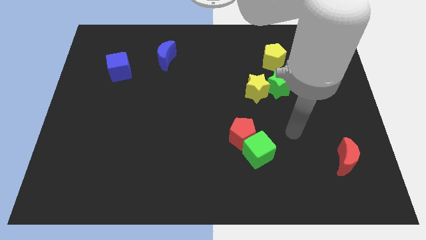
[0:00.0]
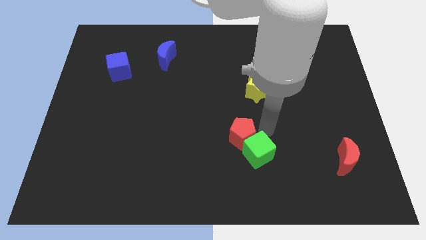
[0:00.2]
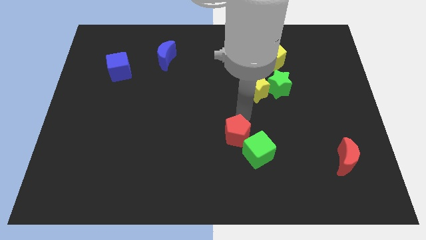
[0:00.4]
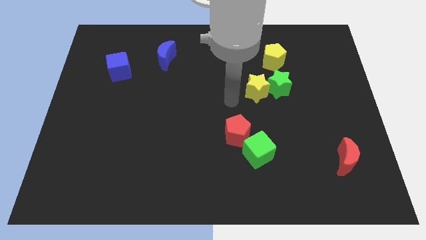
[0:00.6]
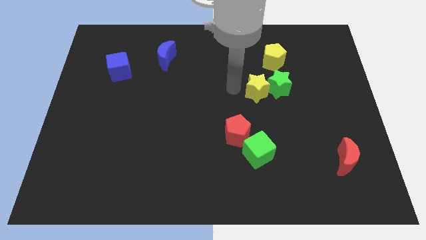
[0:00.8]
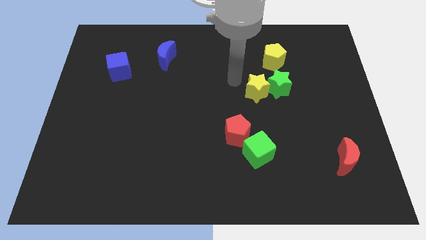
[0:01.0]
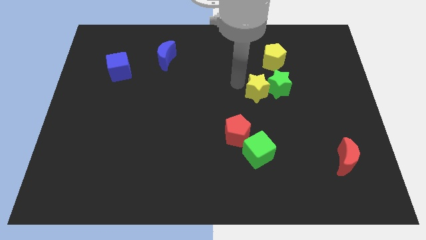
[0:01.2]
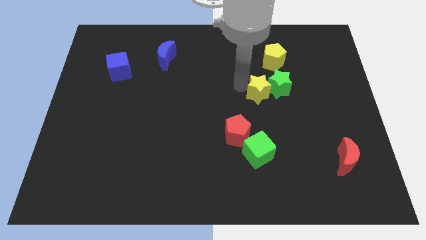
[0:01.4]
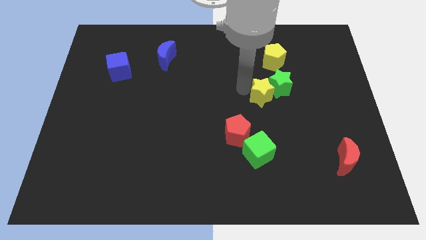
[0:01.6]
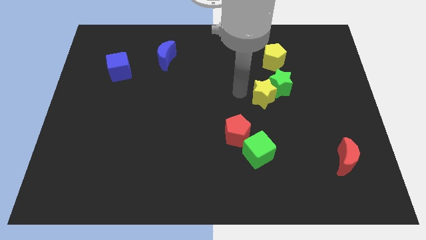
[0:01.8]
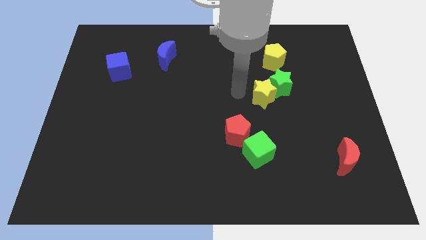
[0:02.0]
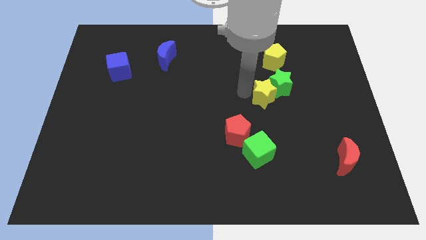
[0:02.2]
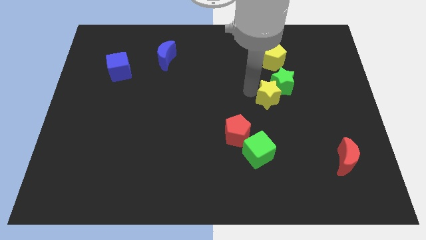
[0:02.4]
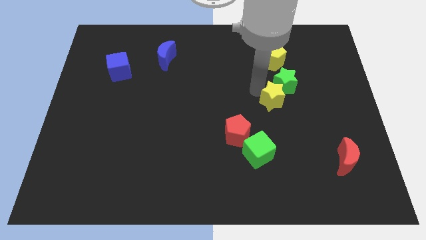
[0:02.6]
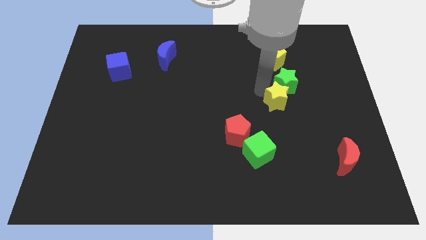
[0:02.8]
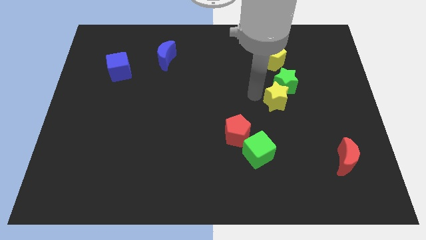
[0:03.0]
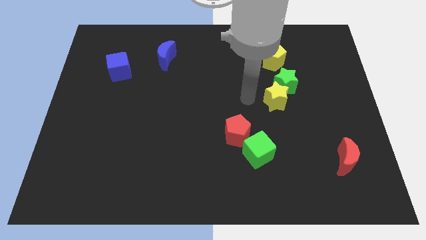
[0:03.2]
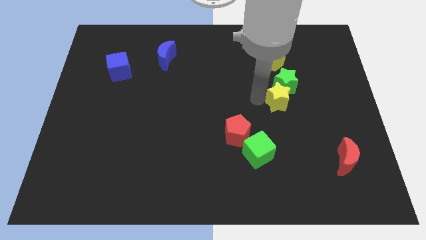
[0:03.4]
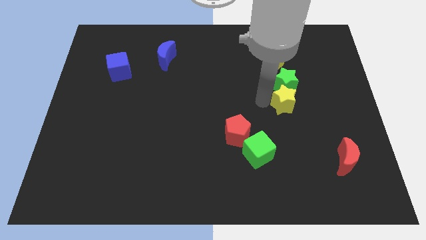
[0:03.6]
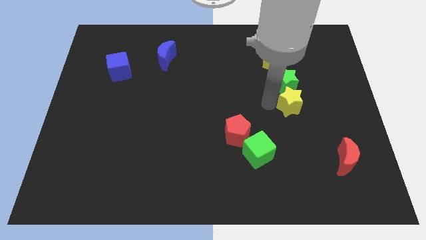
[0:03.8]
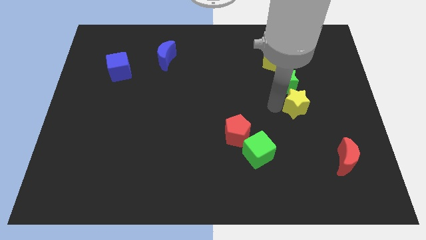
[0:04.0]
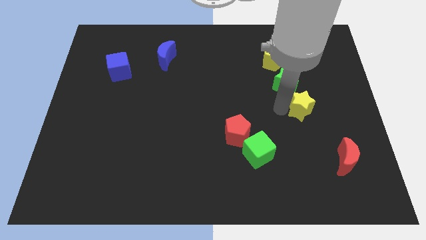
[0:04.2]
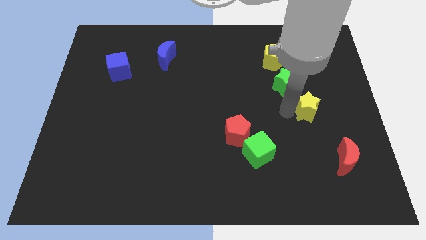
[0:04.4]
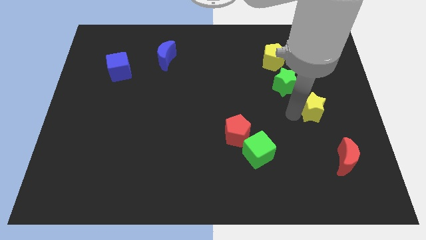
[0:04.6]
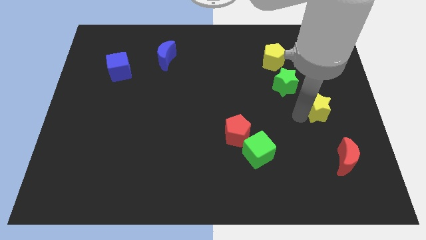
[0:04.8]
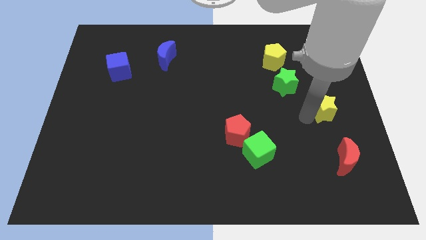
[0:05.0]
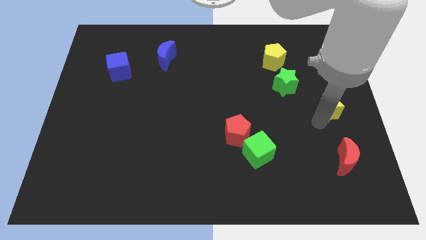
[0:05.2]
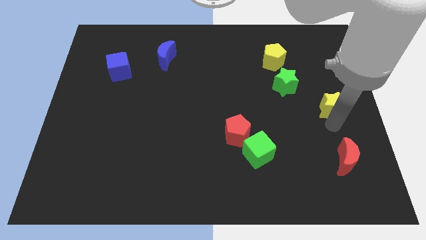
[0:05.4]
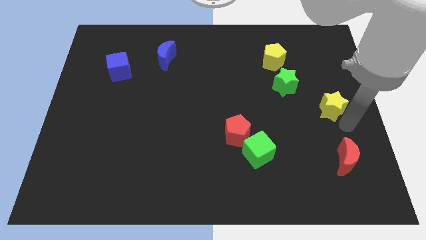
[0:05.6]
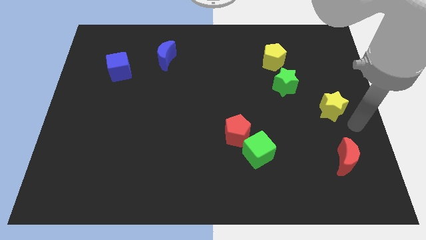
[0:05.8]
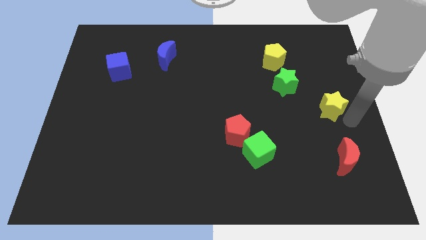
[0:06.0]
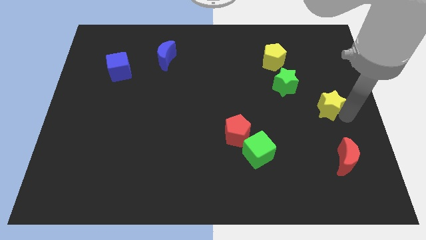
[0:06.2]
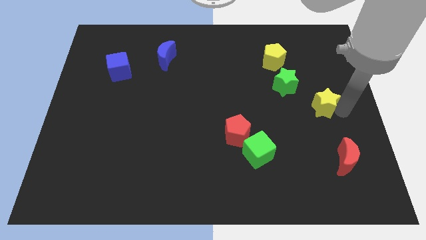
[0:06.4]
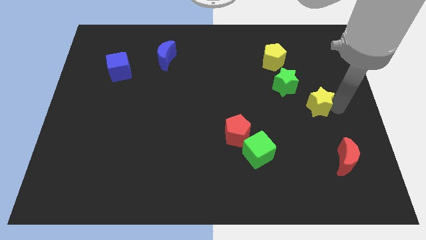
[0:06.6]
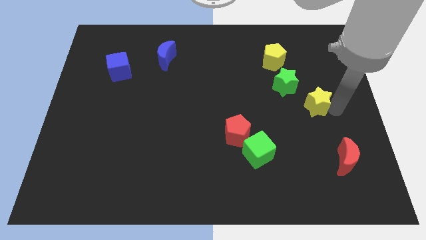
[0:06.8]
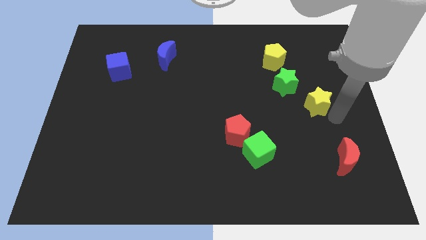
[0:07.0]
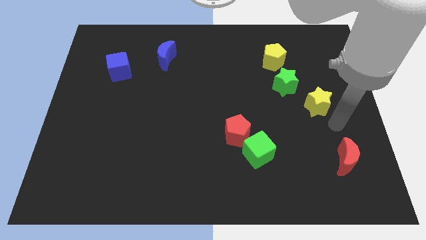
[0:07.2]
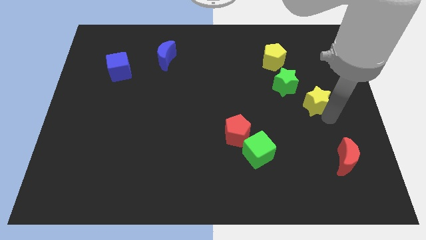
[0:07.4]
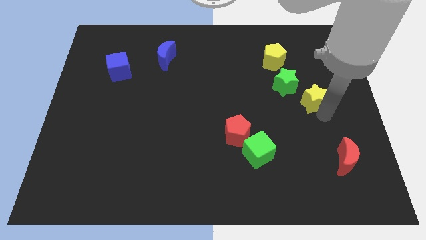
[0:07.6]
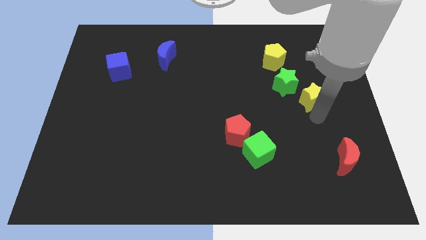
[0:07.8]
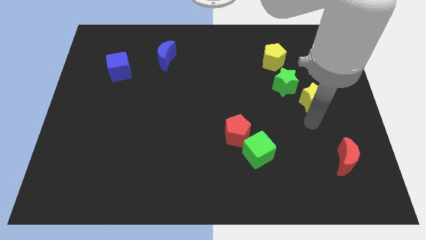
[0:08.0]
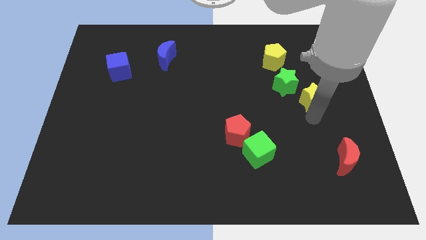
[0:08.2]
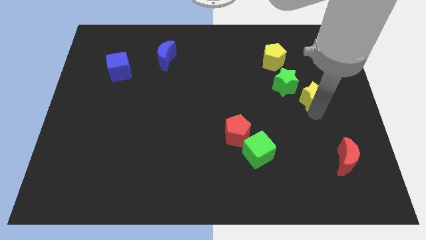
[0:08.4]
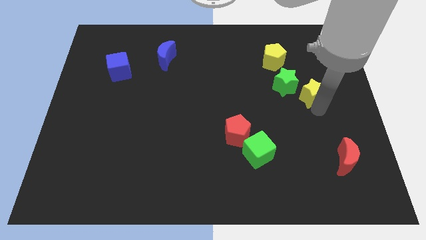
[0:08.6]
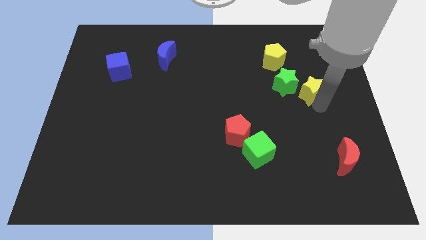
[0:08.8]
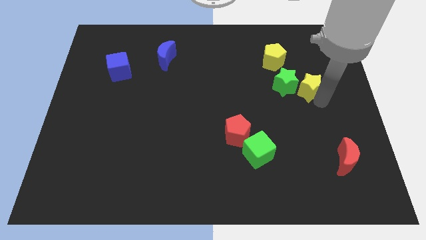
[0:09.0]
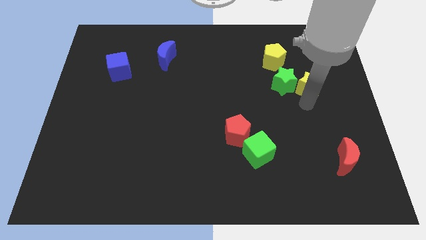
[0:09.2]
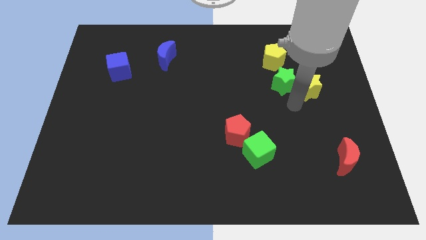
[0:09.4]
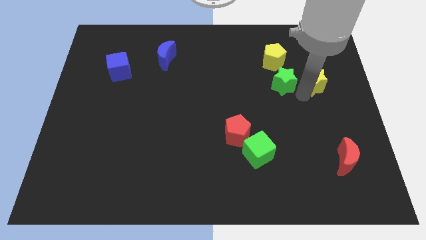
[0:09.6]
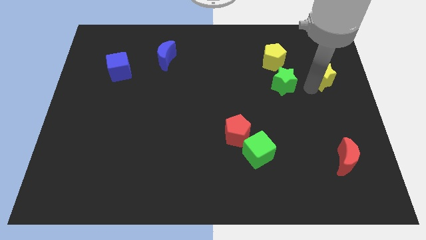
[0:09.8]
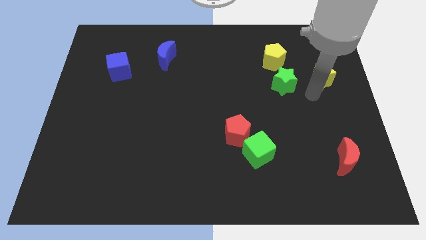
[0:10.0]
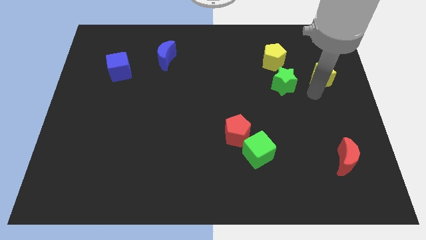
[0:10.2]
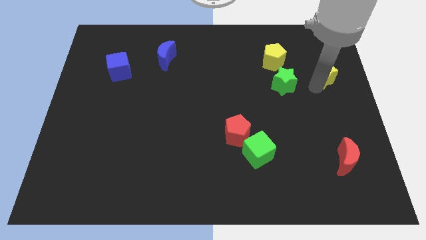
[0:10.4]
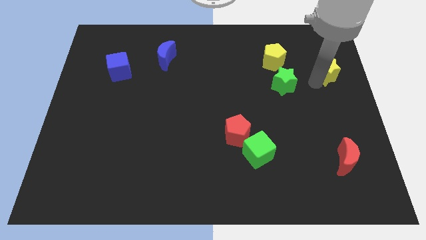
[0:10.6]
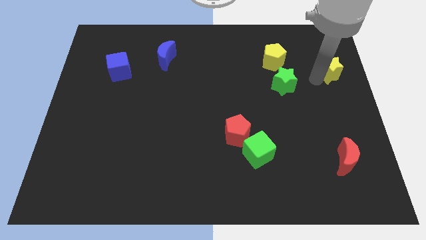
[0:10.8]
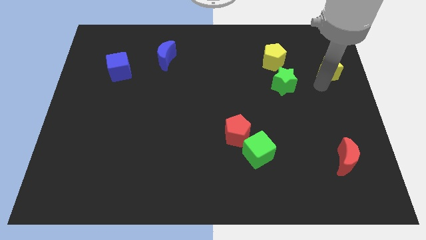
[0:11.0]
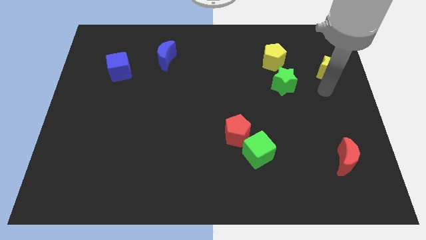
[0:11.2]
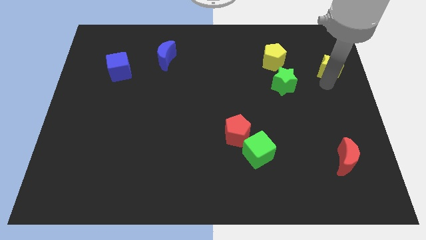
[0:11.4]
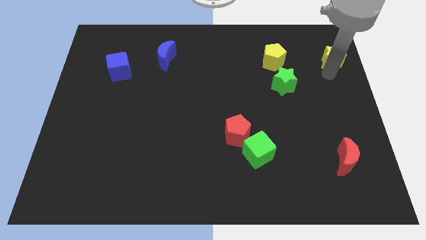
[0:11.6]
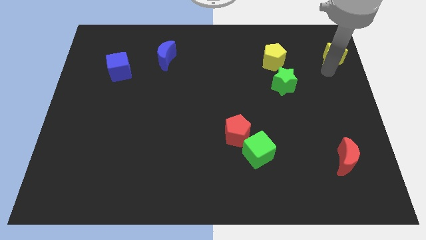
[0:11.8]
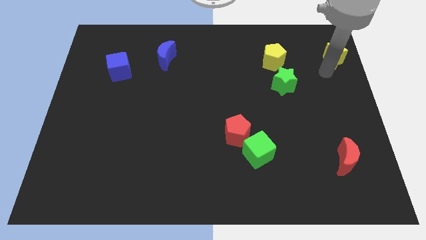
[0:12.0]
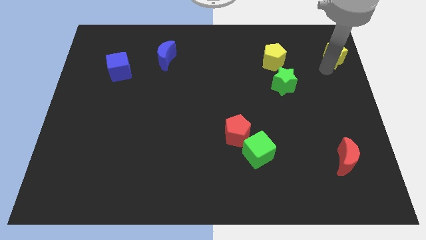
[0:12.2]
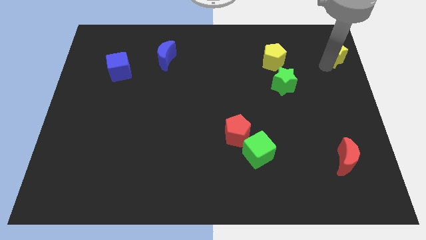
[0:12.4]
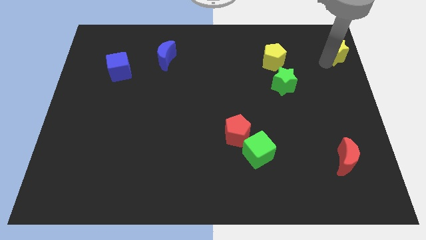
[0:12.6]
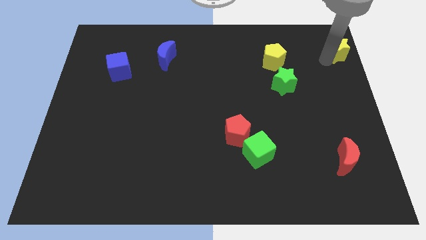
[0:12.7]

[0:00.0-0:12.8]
put the yellow star to the top right

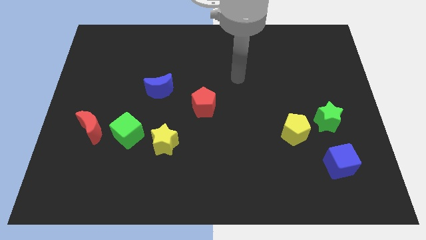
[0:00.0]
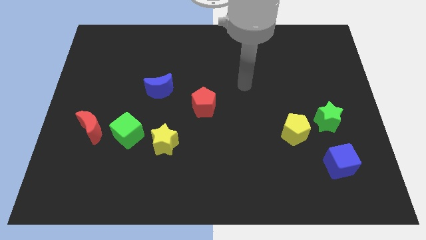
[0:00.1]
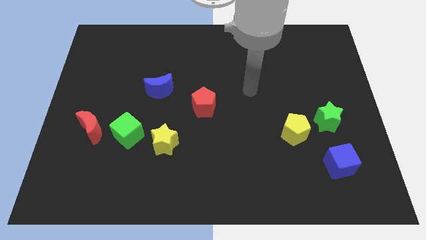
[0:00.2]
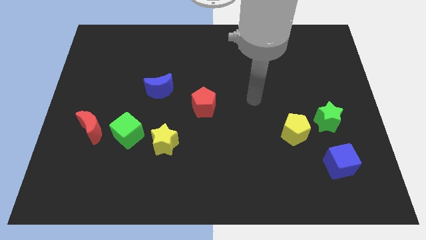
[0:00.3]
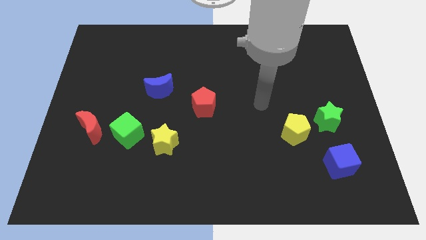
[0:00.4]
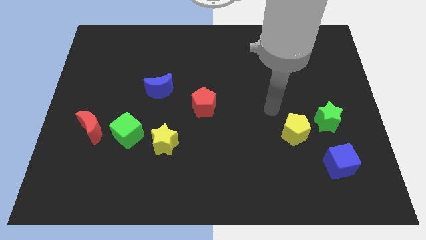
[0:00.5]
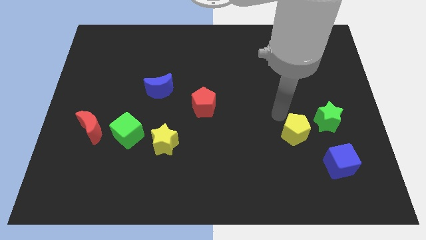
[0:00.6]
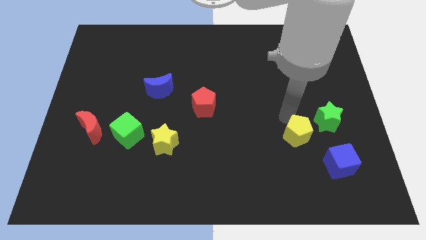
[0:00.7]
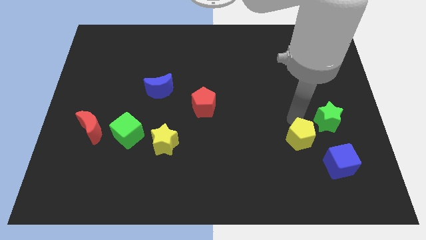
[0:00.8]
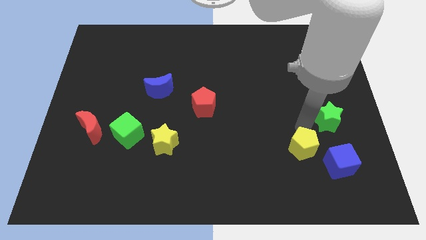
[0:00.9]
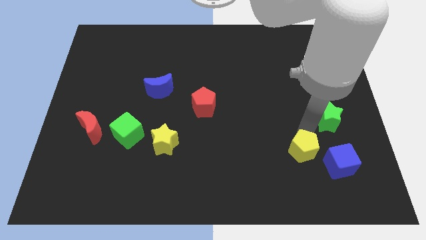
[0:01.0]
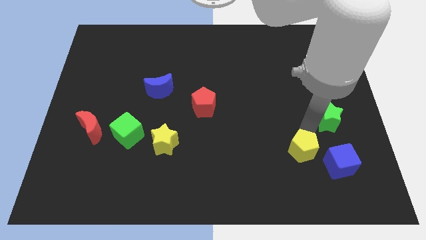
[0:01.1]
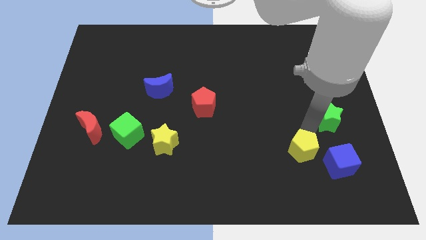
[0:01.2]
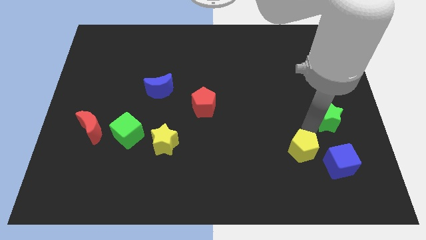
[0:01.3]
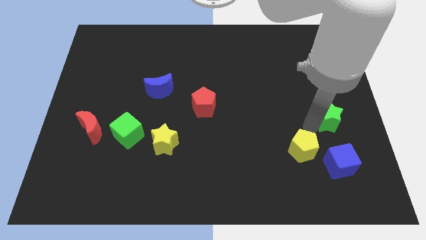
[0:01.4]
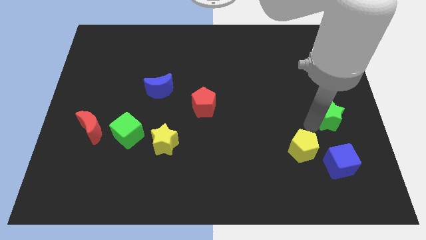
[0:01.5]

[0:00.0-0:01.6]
push the green star to the right side
